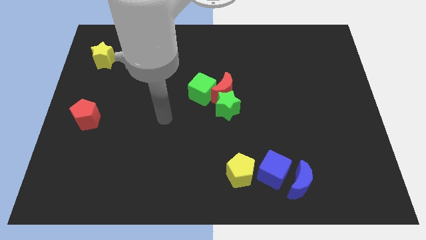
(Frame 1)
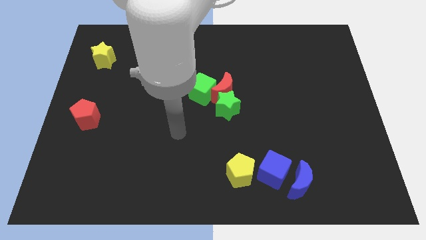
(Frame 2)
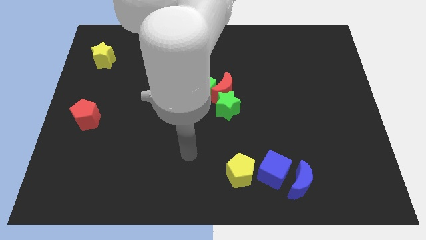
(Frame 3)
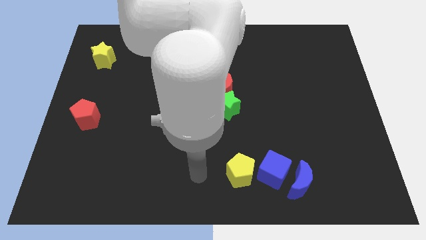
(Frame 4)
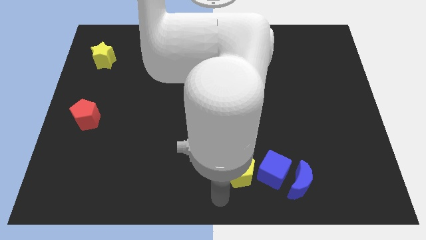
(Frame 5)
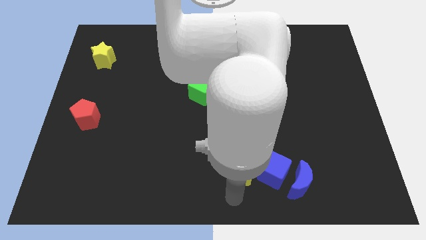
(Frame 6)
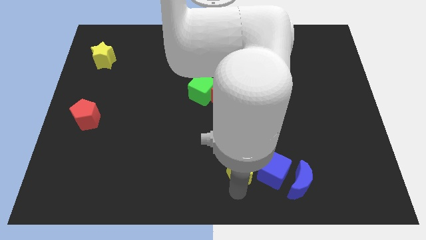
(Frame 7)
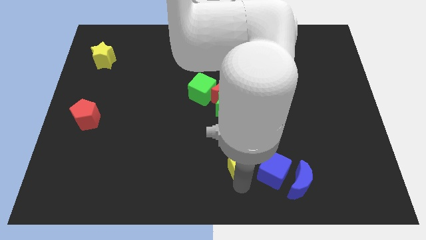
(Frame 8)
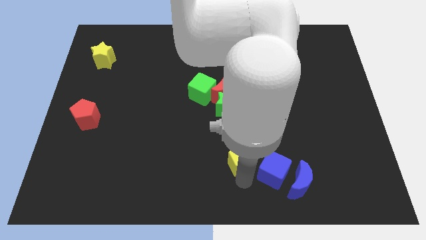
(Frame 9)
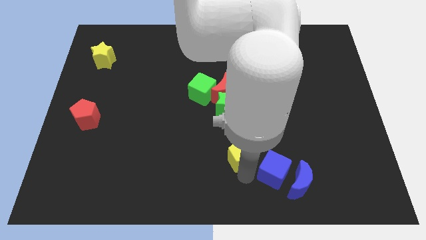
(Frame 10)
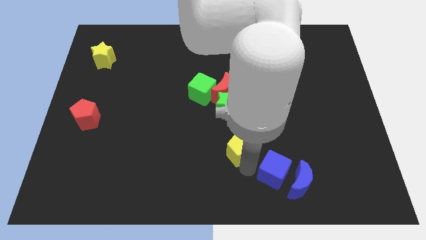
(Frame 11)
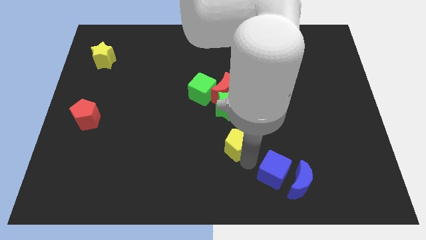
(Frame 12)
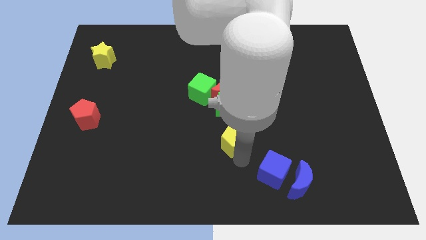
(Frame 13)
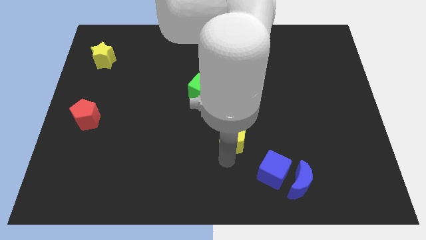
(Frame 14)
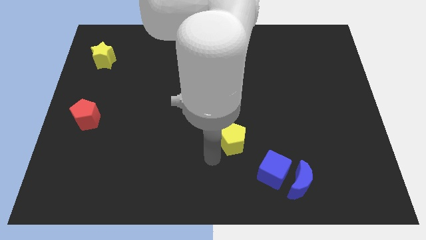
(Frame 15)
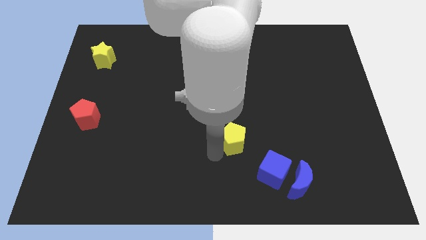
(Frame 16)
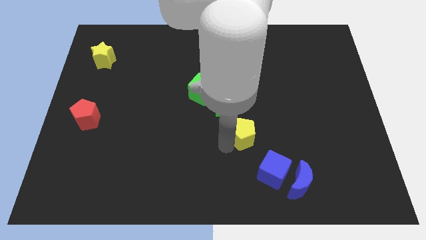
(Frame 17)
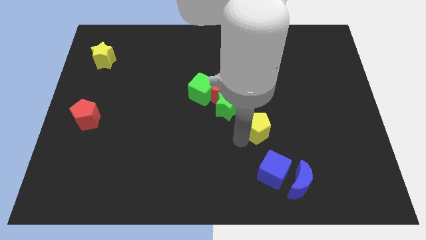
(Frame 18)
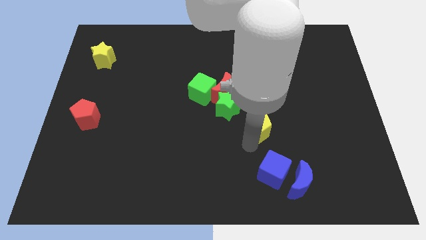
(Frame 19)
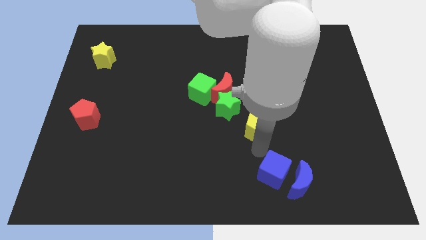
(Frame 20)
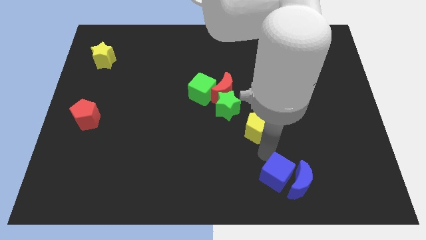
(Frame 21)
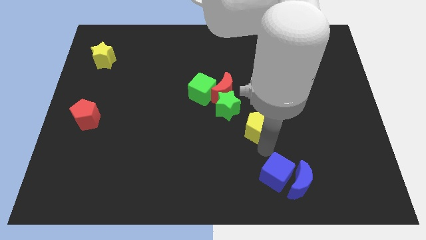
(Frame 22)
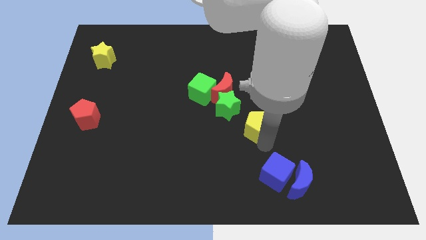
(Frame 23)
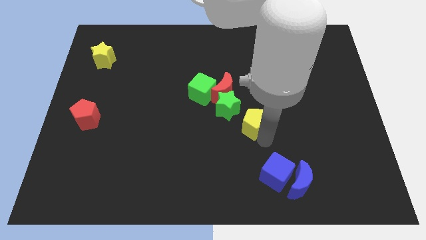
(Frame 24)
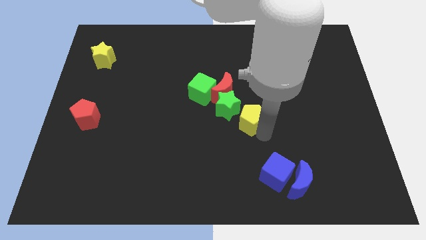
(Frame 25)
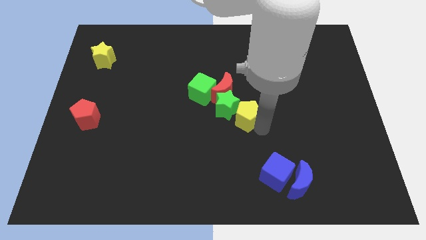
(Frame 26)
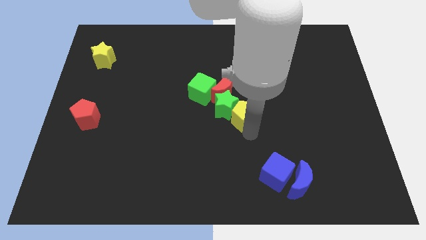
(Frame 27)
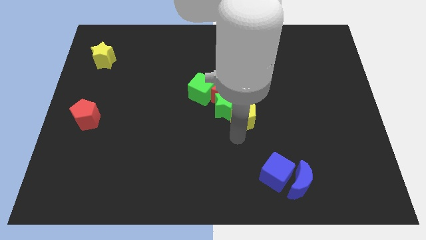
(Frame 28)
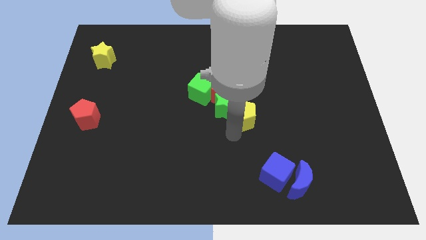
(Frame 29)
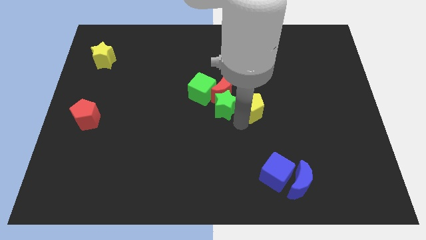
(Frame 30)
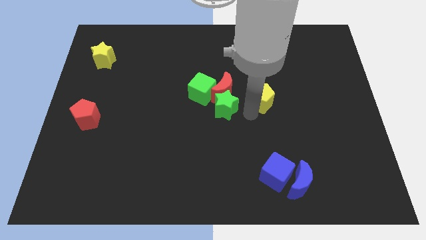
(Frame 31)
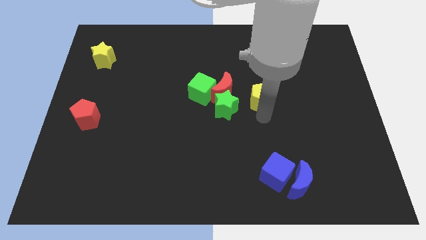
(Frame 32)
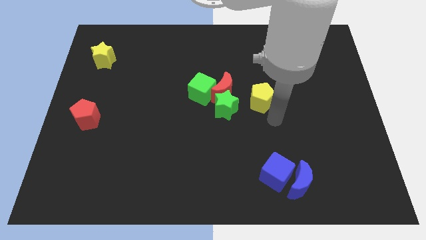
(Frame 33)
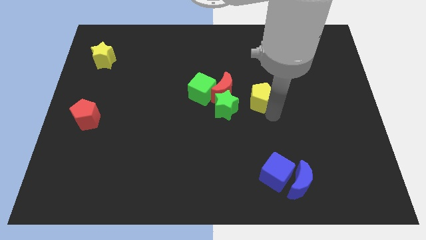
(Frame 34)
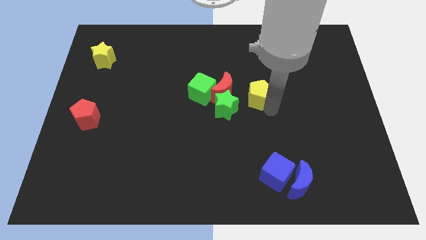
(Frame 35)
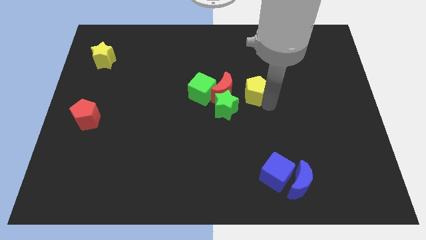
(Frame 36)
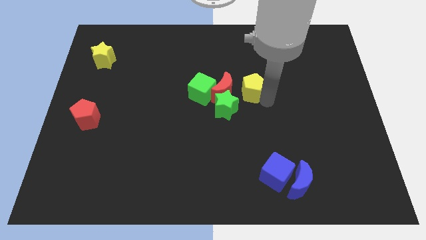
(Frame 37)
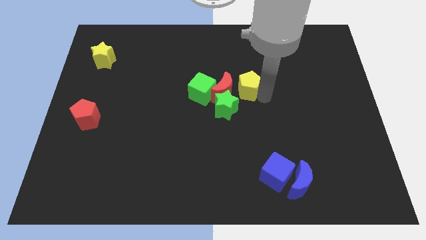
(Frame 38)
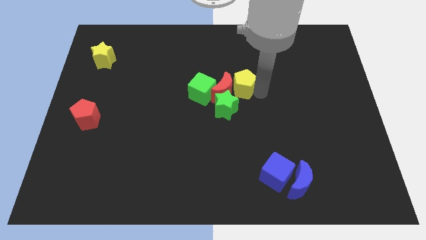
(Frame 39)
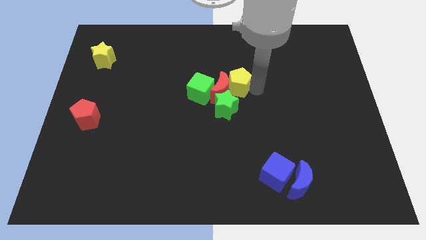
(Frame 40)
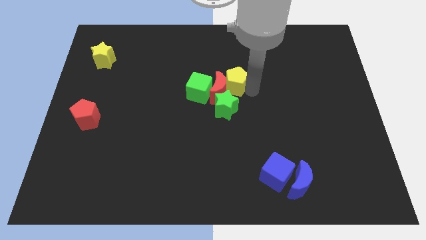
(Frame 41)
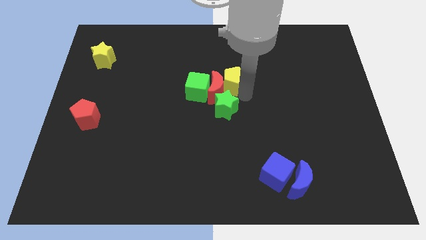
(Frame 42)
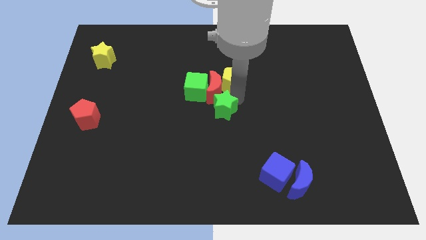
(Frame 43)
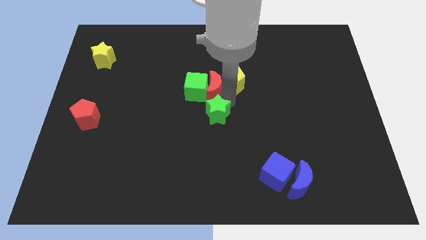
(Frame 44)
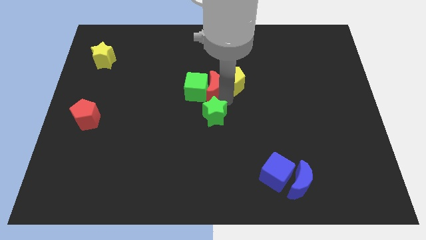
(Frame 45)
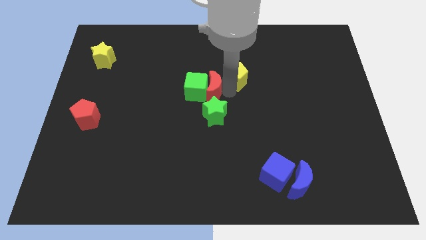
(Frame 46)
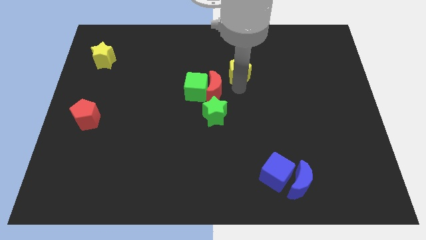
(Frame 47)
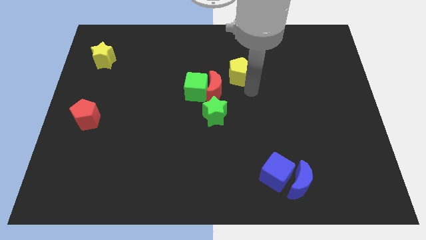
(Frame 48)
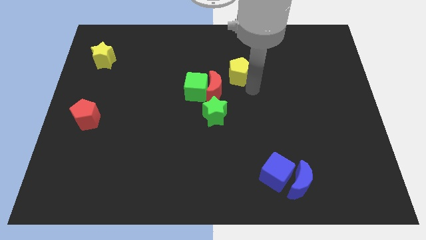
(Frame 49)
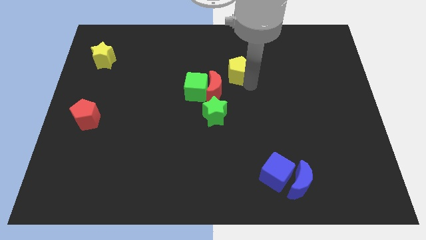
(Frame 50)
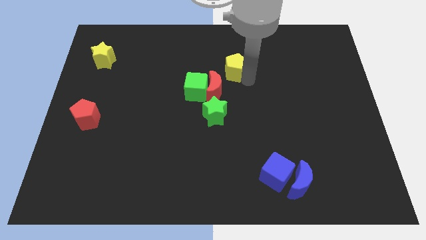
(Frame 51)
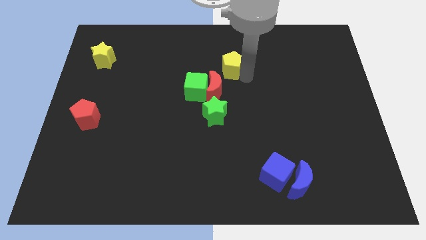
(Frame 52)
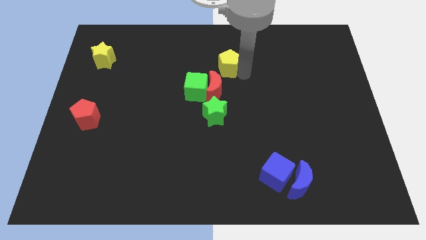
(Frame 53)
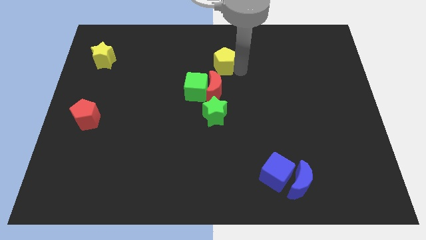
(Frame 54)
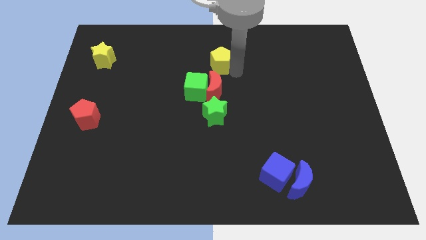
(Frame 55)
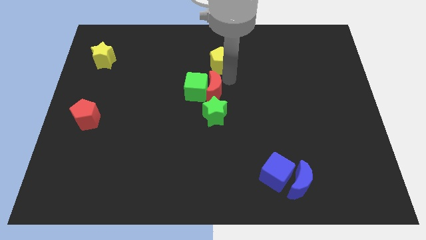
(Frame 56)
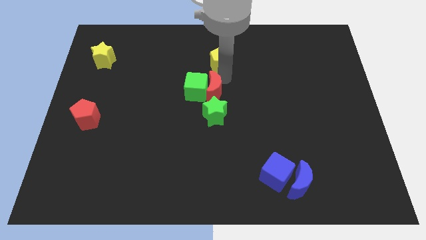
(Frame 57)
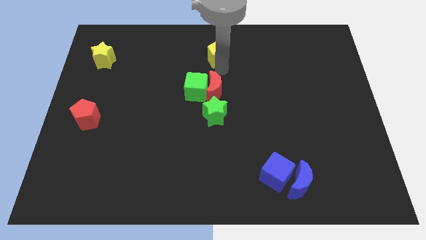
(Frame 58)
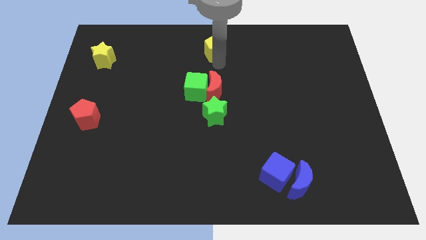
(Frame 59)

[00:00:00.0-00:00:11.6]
put the yellow pentagon to the top

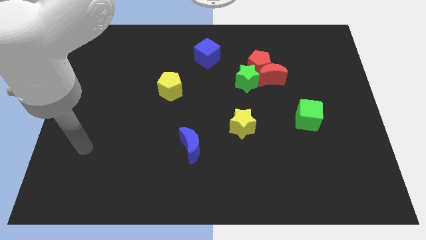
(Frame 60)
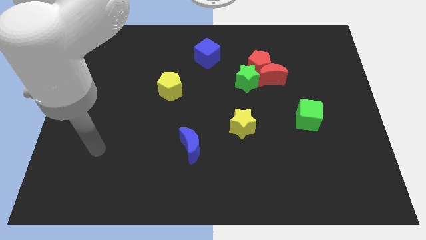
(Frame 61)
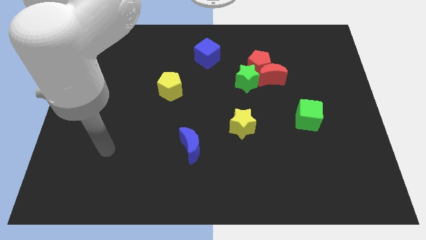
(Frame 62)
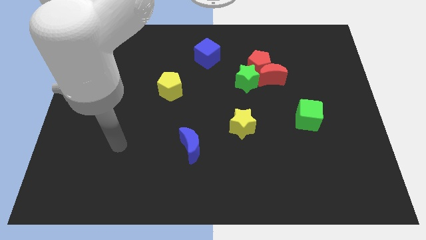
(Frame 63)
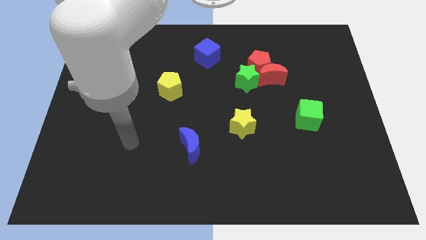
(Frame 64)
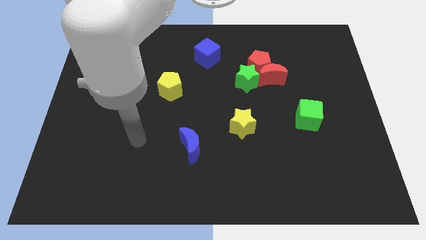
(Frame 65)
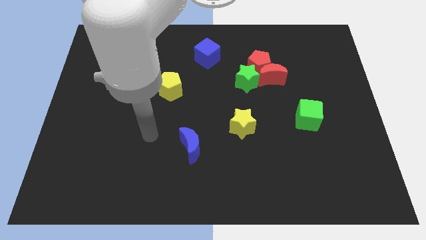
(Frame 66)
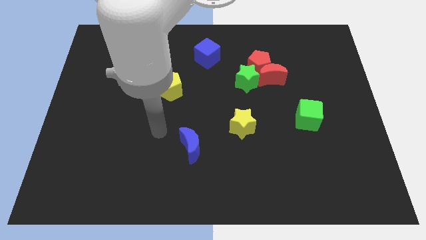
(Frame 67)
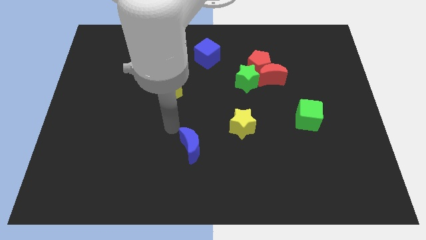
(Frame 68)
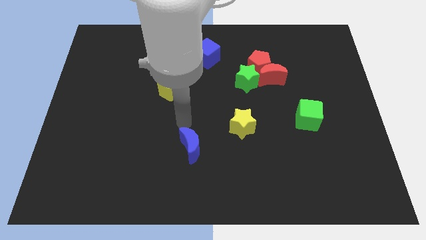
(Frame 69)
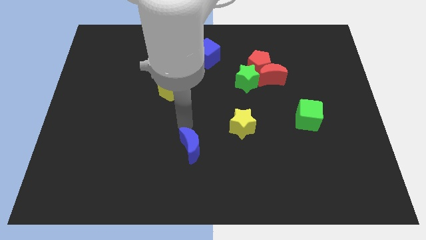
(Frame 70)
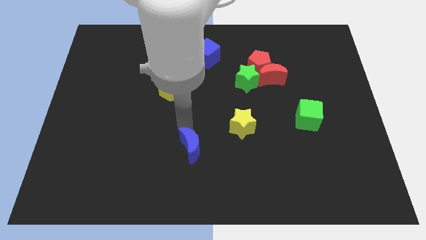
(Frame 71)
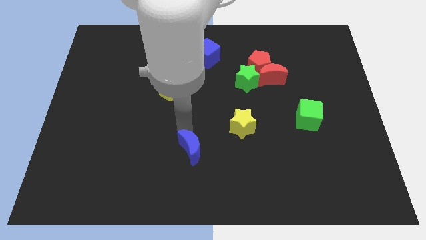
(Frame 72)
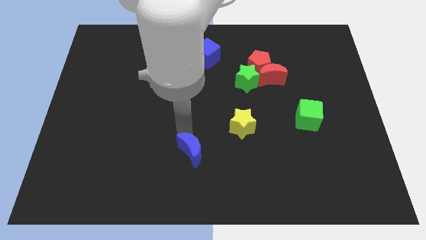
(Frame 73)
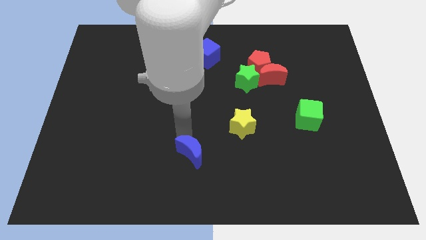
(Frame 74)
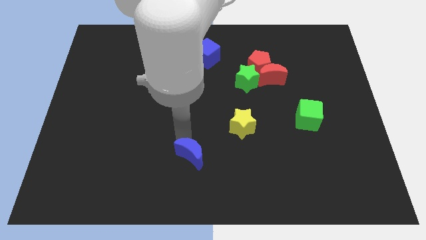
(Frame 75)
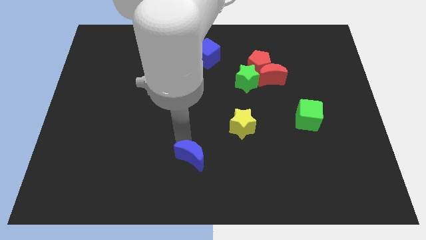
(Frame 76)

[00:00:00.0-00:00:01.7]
slide the blue moon to the bottom
